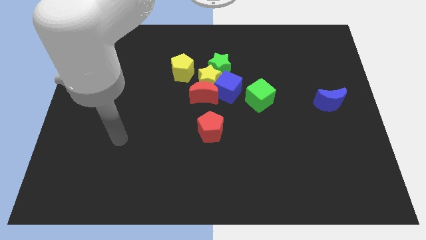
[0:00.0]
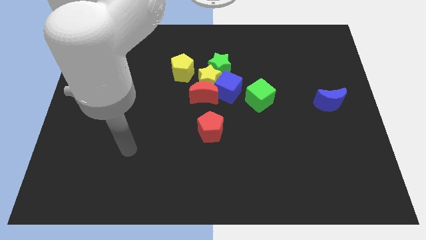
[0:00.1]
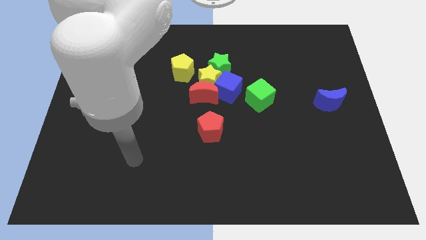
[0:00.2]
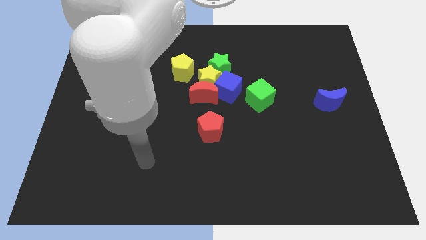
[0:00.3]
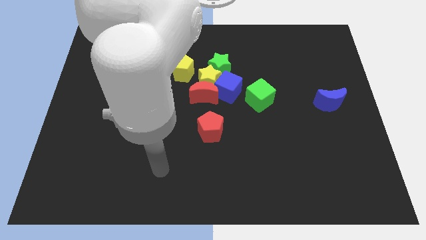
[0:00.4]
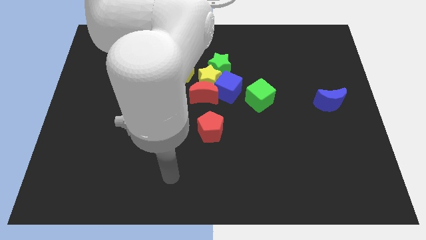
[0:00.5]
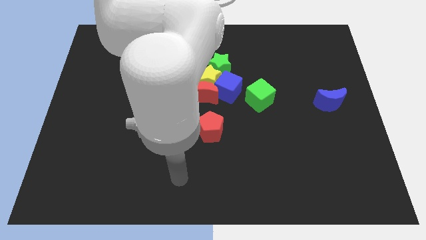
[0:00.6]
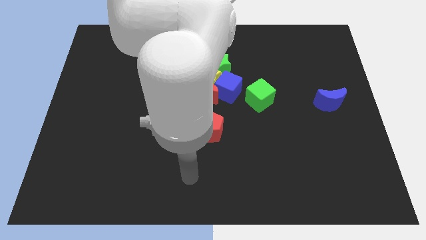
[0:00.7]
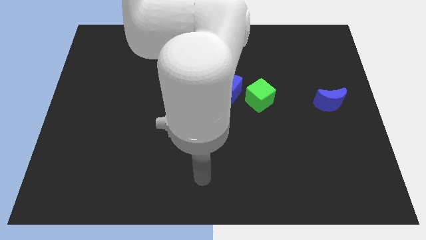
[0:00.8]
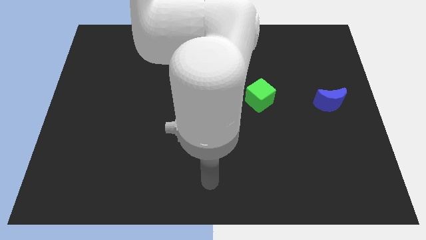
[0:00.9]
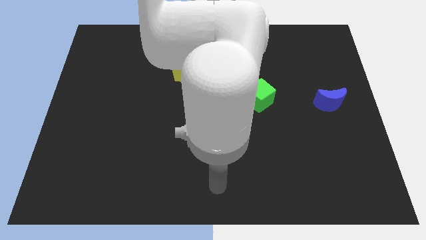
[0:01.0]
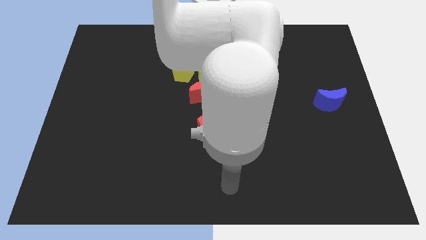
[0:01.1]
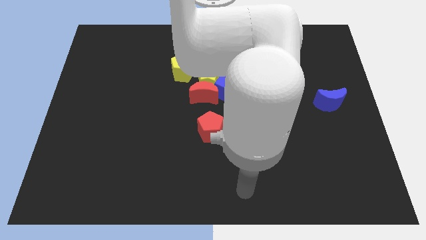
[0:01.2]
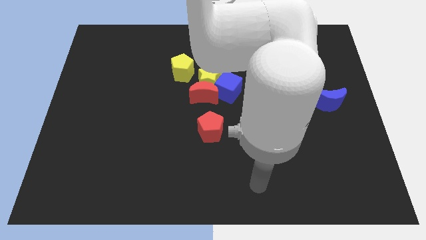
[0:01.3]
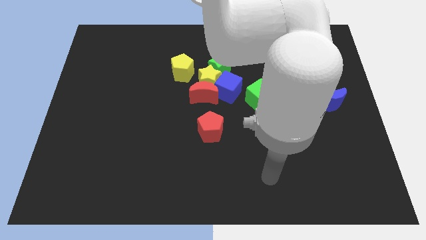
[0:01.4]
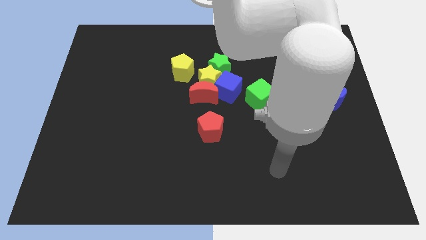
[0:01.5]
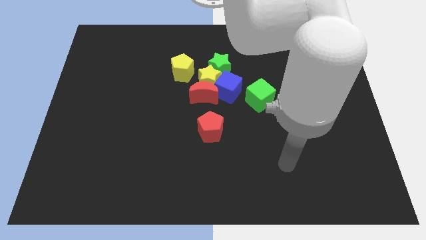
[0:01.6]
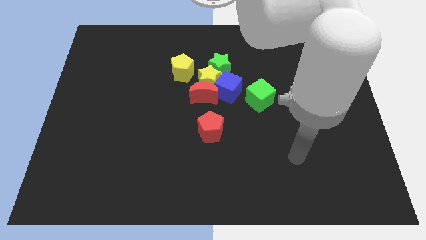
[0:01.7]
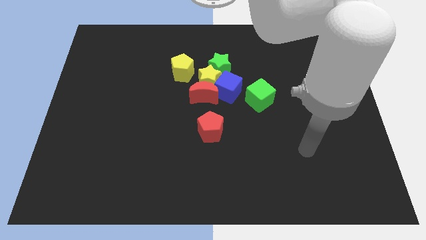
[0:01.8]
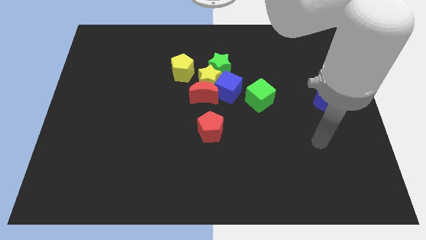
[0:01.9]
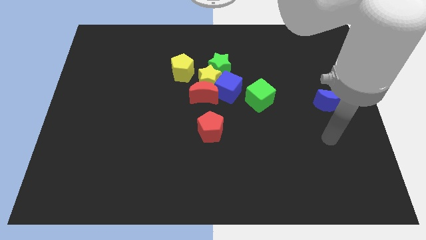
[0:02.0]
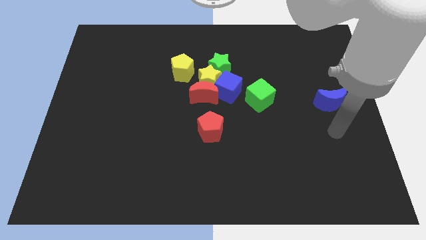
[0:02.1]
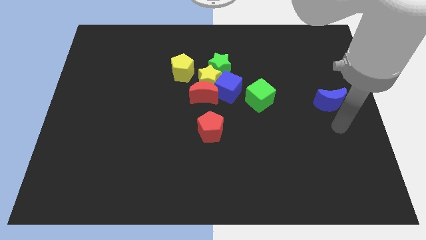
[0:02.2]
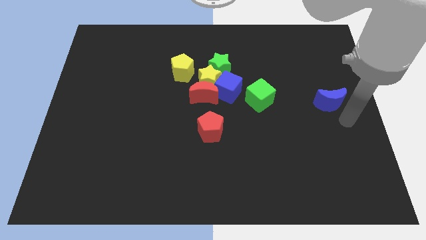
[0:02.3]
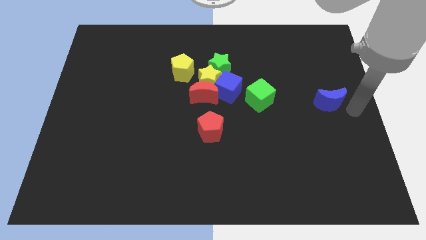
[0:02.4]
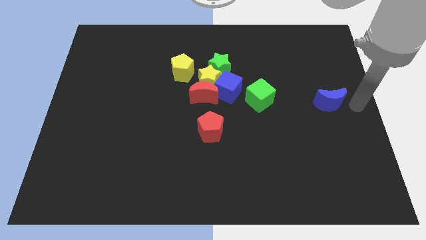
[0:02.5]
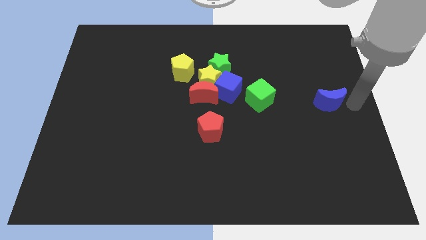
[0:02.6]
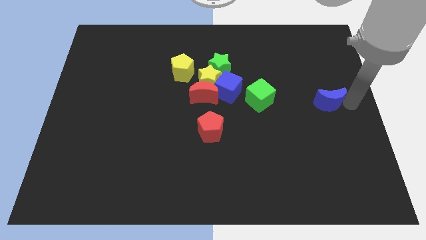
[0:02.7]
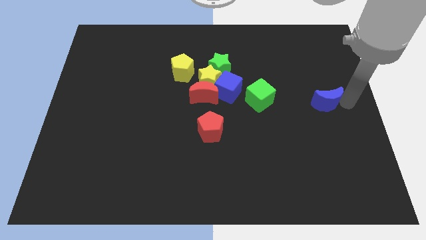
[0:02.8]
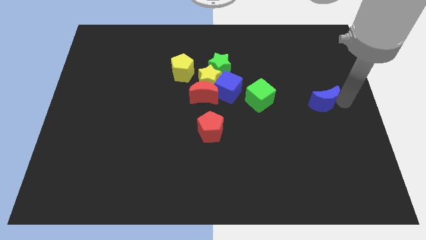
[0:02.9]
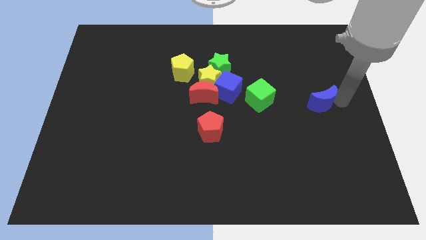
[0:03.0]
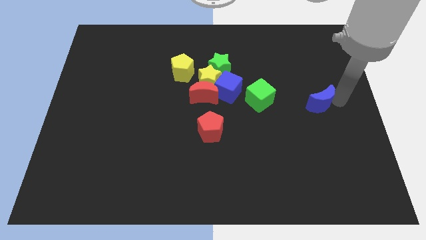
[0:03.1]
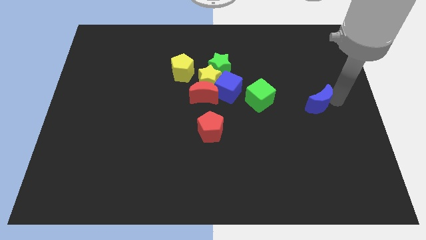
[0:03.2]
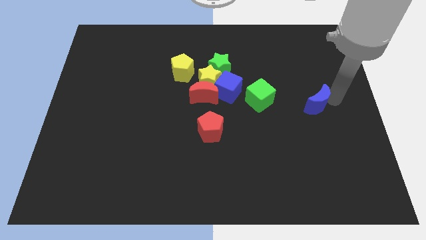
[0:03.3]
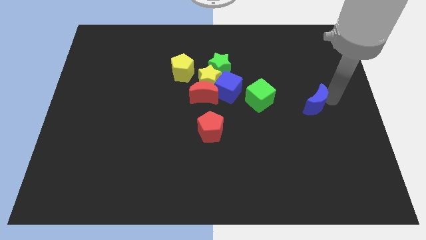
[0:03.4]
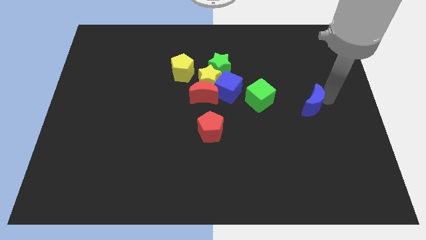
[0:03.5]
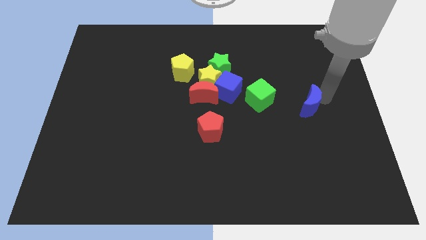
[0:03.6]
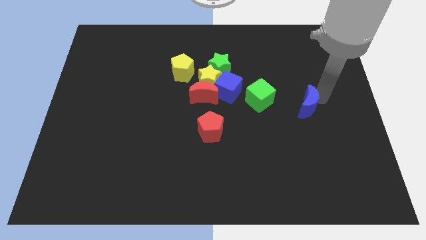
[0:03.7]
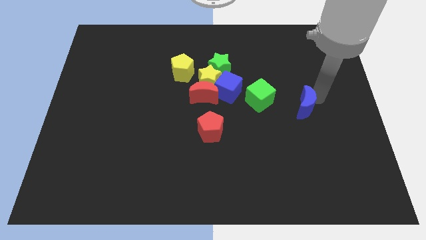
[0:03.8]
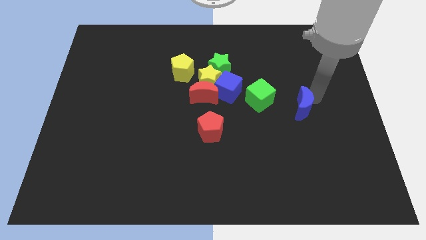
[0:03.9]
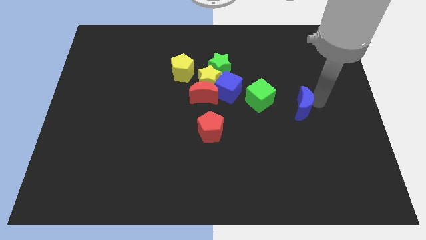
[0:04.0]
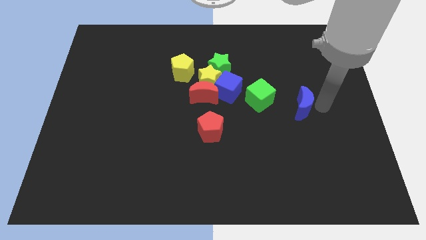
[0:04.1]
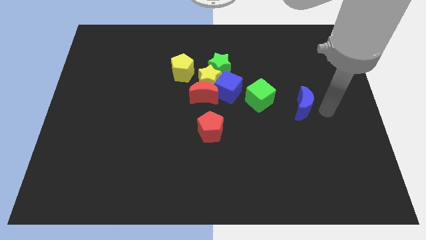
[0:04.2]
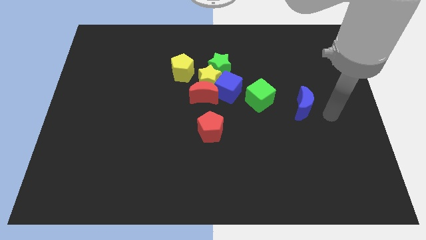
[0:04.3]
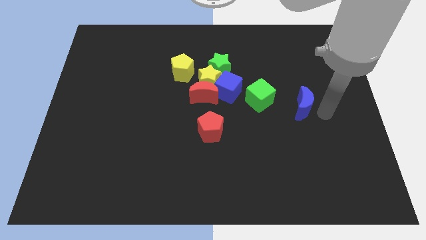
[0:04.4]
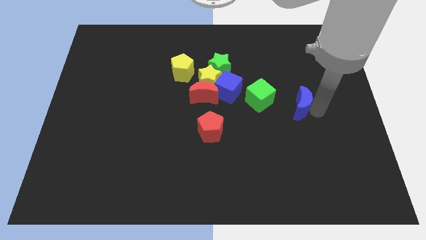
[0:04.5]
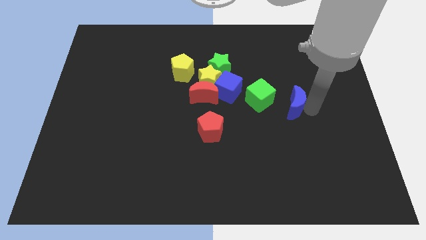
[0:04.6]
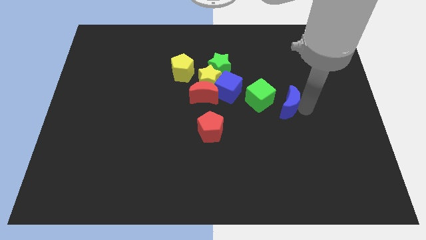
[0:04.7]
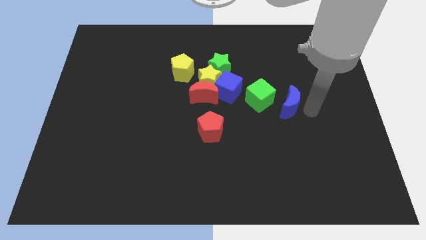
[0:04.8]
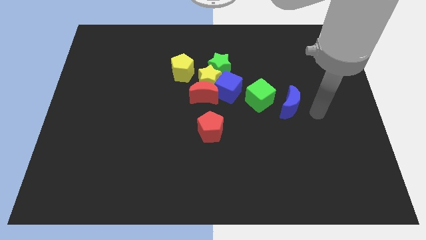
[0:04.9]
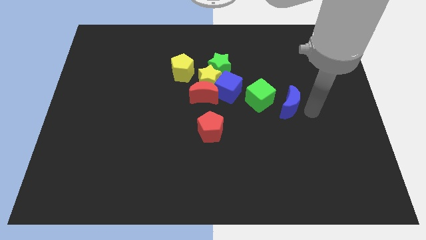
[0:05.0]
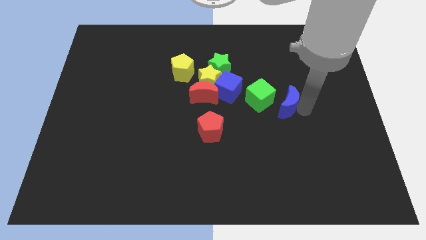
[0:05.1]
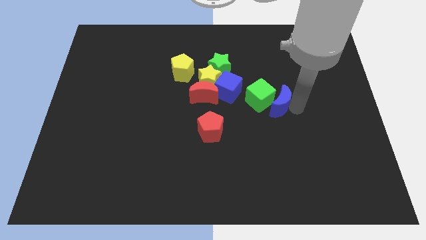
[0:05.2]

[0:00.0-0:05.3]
push the blue moon towards the green cube

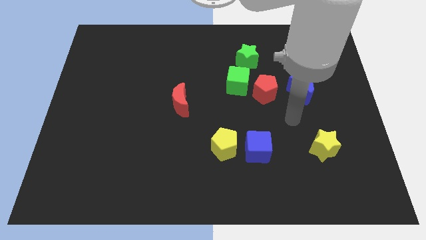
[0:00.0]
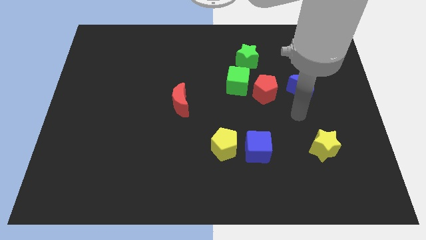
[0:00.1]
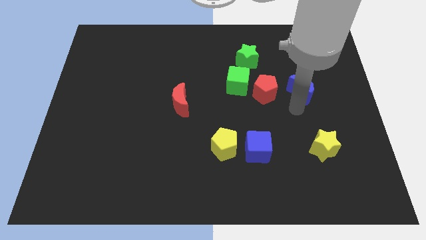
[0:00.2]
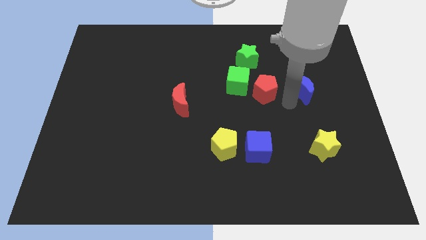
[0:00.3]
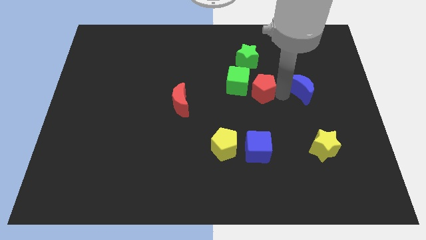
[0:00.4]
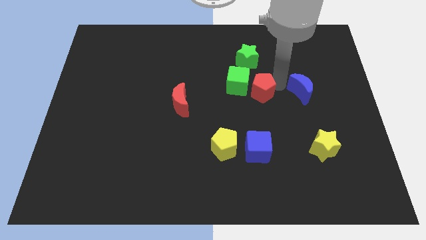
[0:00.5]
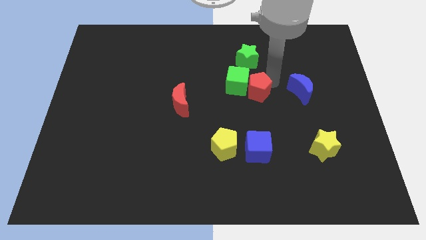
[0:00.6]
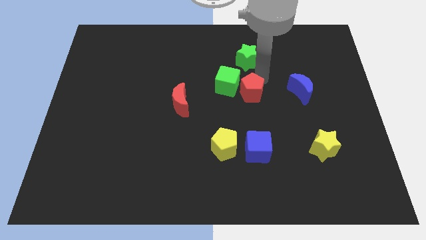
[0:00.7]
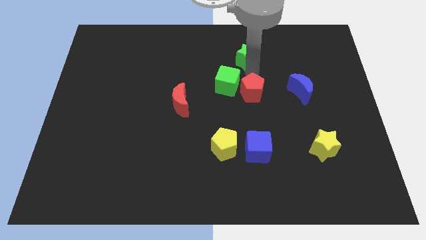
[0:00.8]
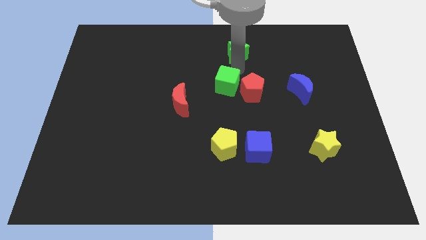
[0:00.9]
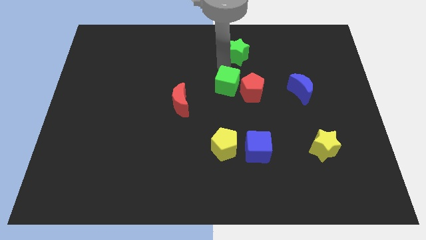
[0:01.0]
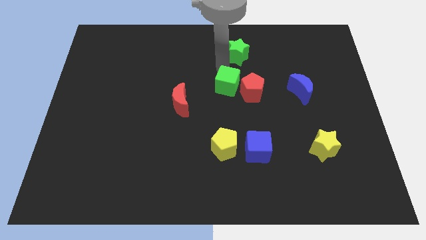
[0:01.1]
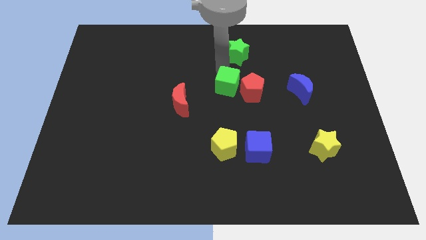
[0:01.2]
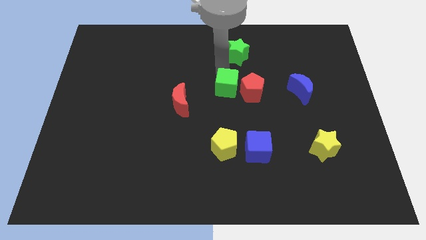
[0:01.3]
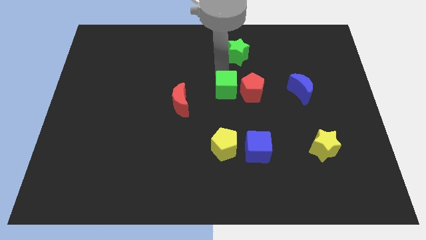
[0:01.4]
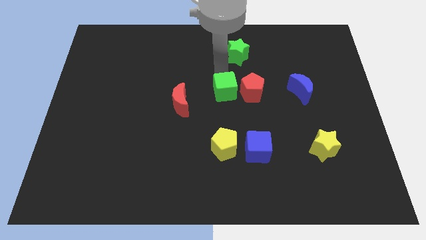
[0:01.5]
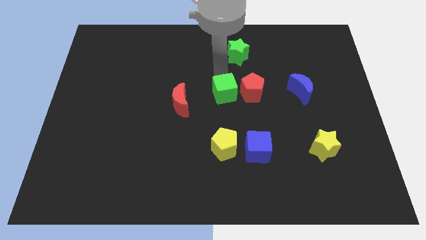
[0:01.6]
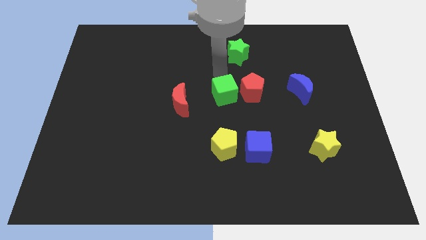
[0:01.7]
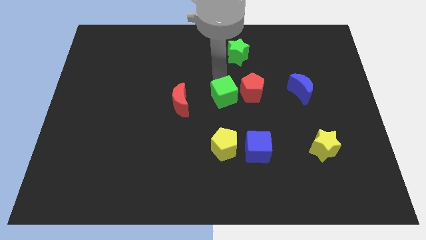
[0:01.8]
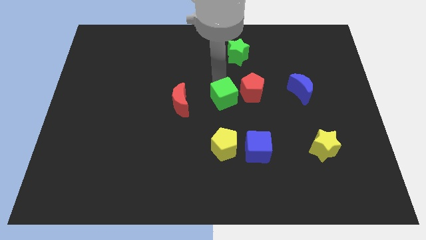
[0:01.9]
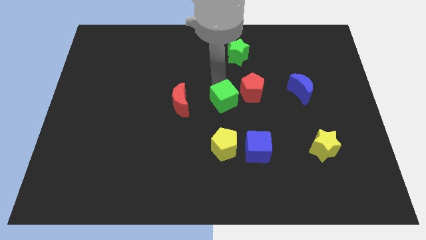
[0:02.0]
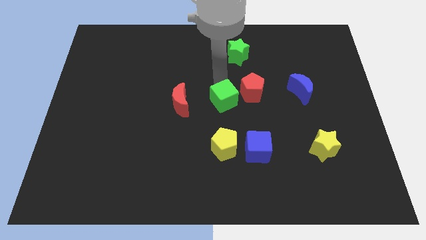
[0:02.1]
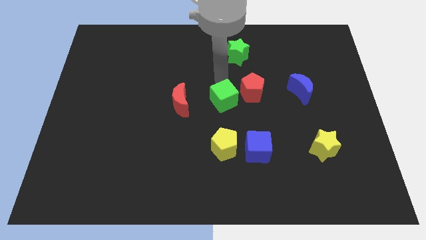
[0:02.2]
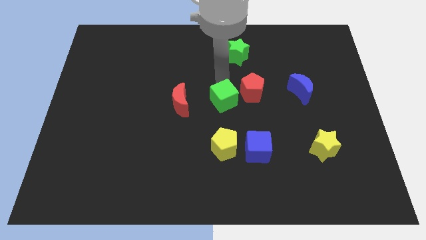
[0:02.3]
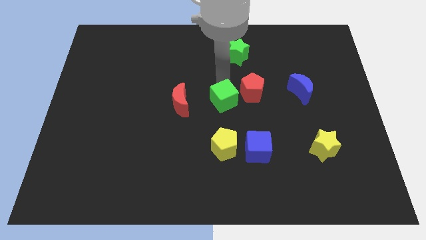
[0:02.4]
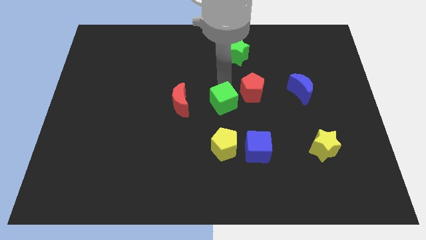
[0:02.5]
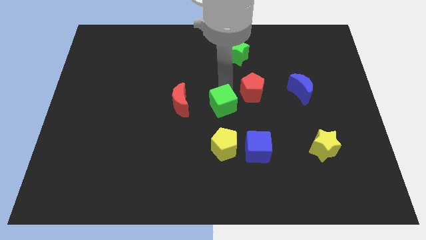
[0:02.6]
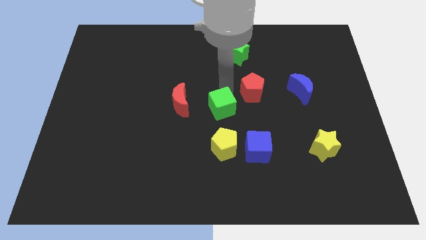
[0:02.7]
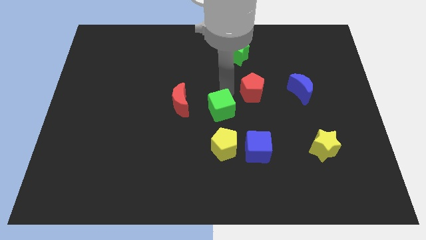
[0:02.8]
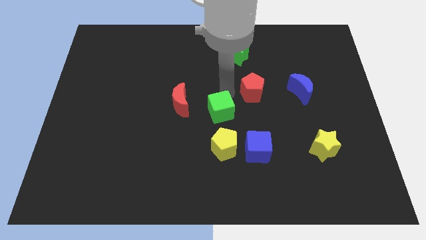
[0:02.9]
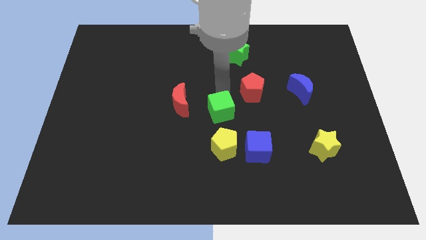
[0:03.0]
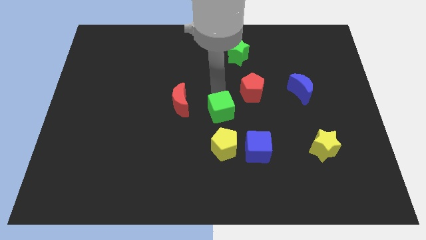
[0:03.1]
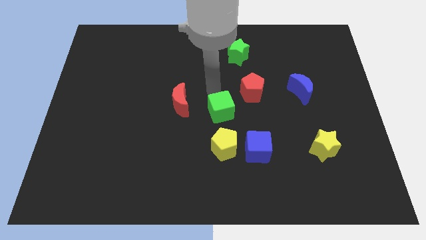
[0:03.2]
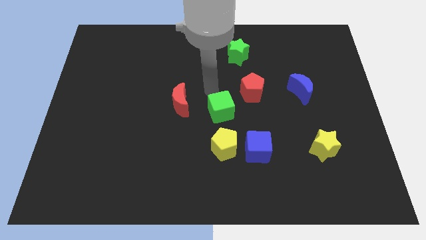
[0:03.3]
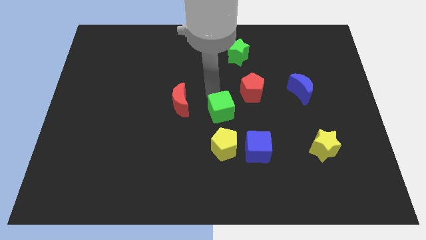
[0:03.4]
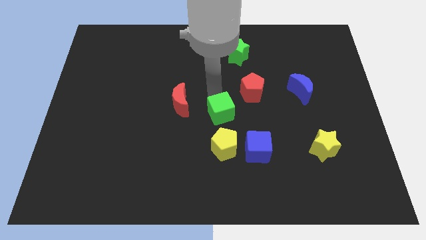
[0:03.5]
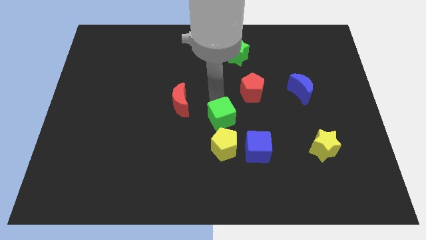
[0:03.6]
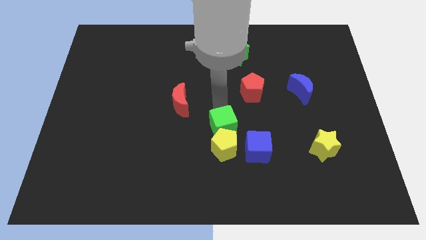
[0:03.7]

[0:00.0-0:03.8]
put the green cube to the yellow pentagon
